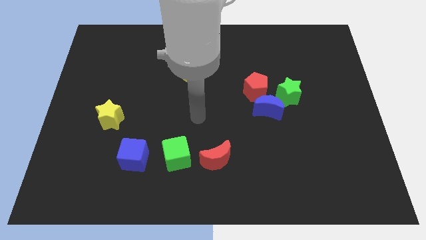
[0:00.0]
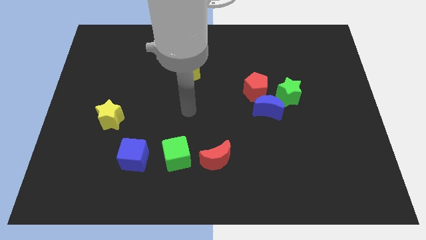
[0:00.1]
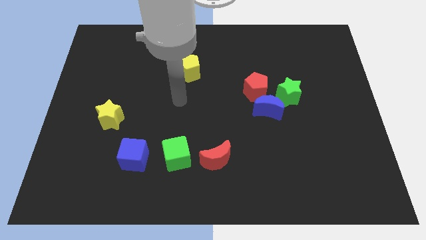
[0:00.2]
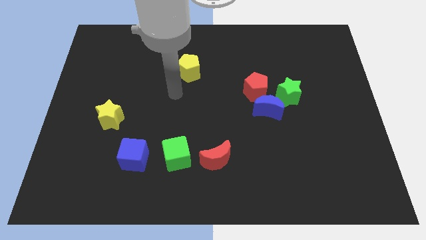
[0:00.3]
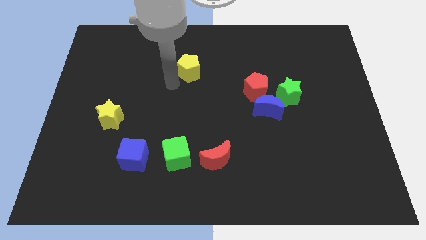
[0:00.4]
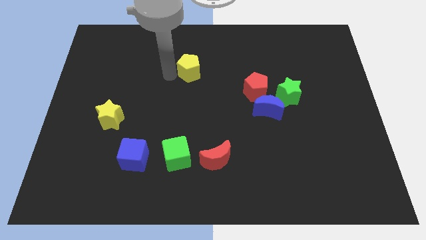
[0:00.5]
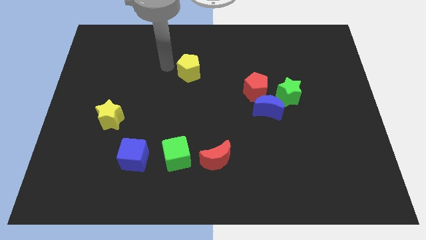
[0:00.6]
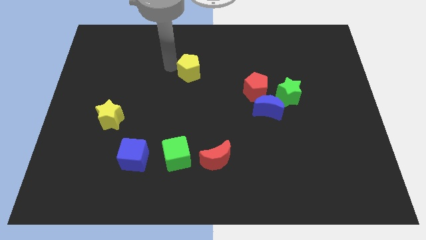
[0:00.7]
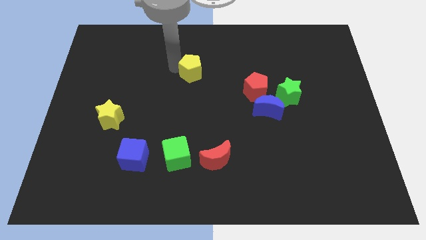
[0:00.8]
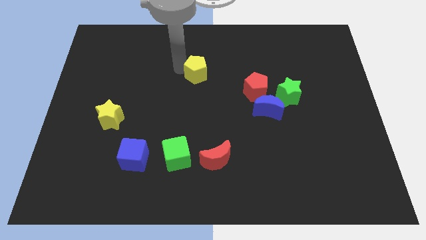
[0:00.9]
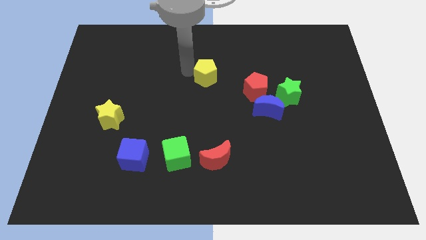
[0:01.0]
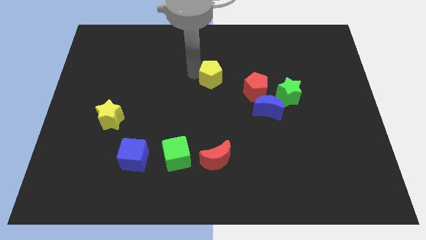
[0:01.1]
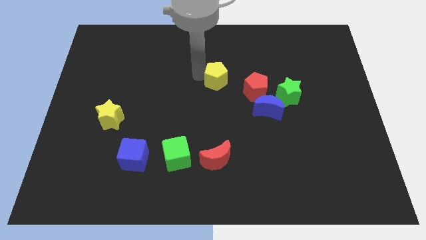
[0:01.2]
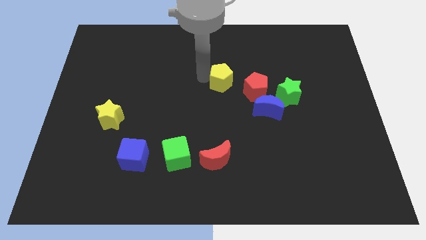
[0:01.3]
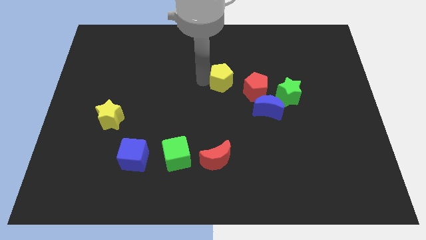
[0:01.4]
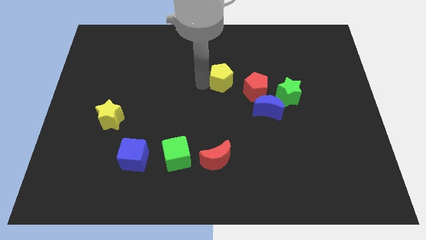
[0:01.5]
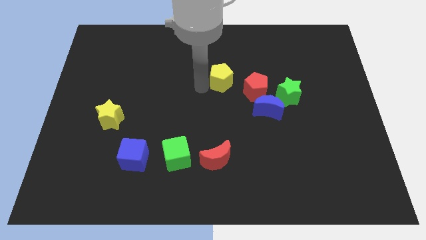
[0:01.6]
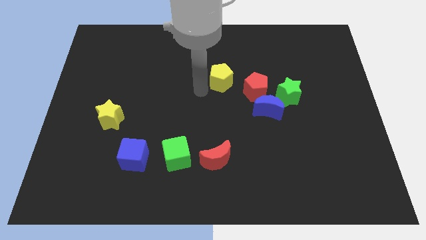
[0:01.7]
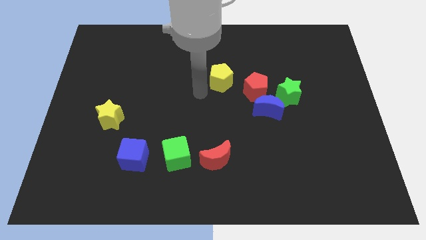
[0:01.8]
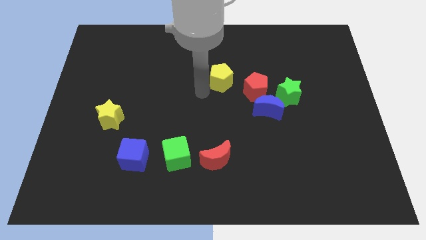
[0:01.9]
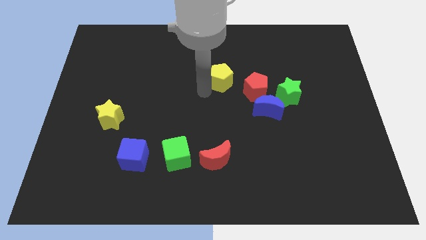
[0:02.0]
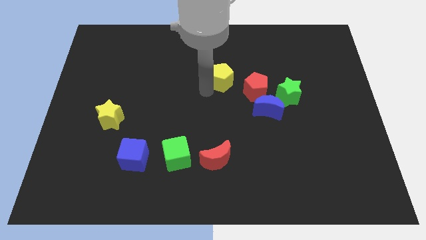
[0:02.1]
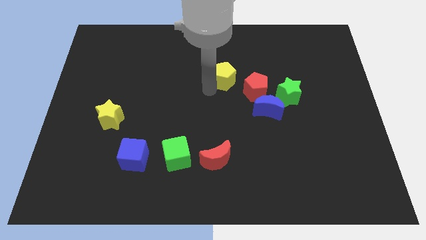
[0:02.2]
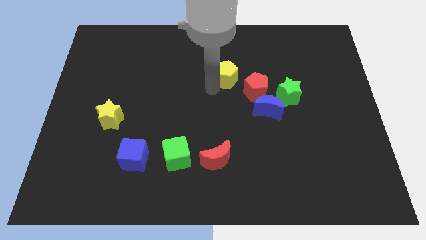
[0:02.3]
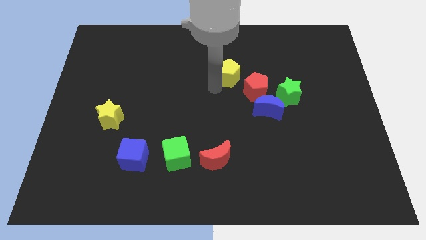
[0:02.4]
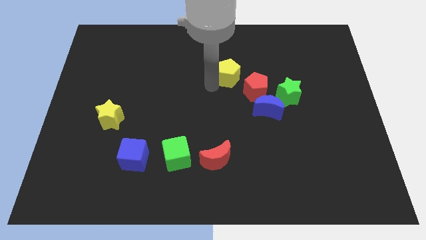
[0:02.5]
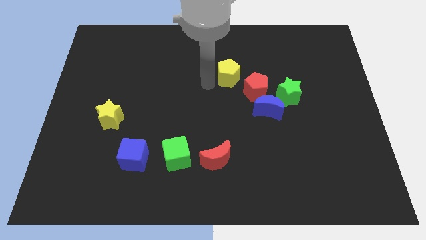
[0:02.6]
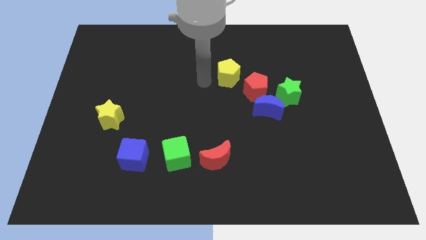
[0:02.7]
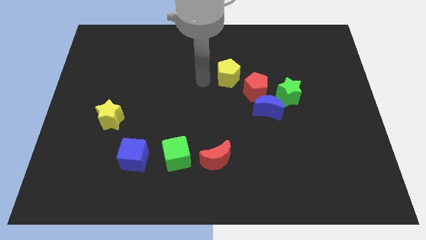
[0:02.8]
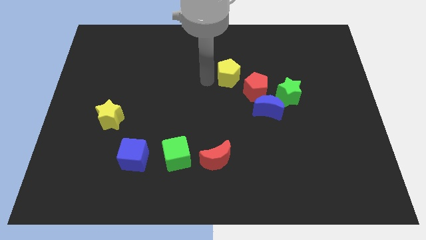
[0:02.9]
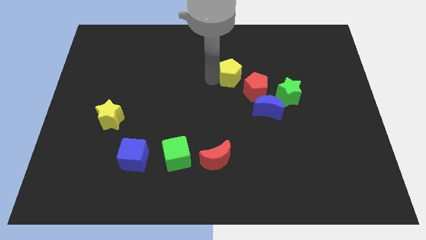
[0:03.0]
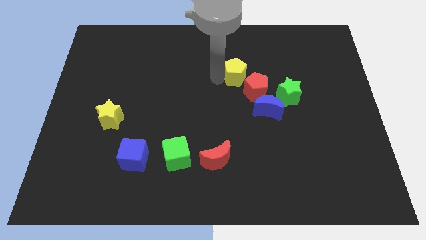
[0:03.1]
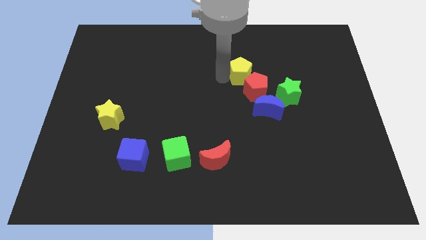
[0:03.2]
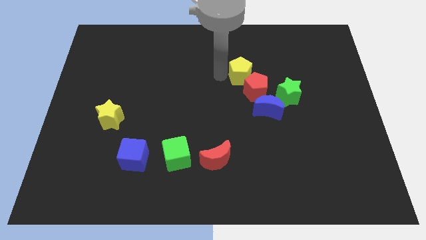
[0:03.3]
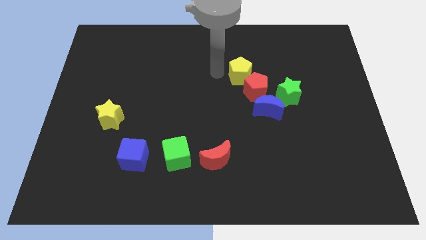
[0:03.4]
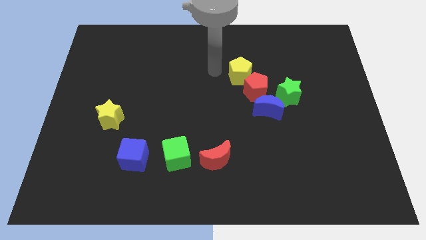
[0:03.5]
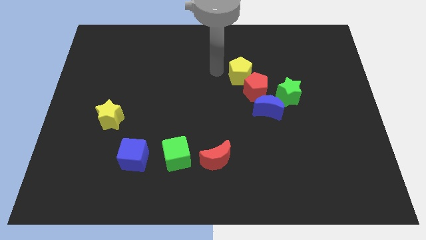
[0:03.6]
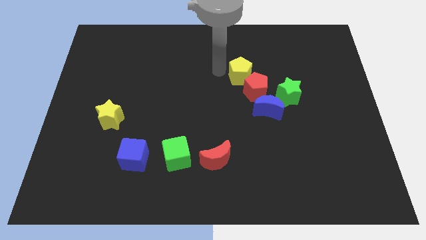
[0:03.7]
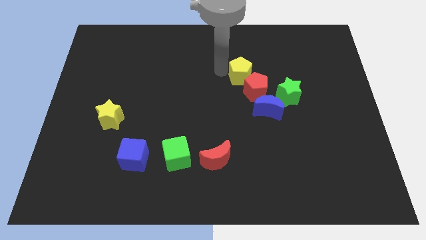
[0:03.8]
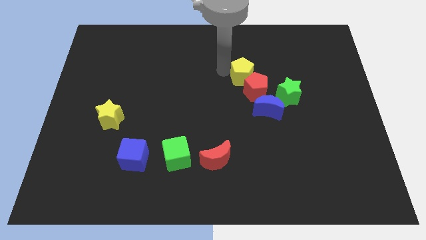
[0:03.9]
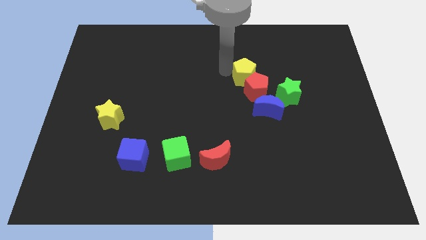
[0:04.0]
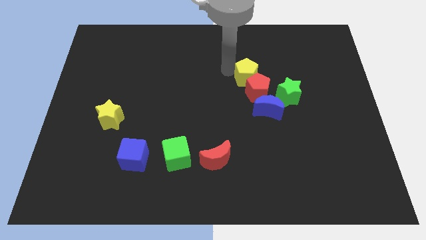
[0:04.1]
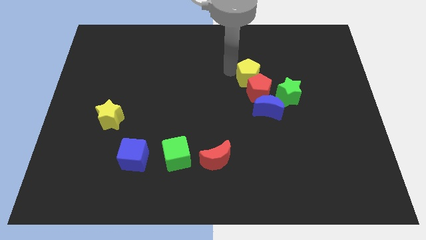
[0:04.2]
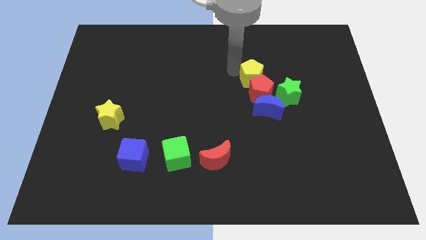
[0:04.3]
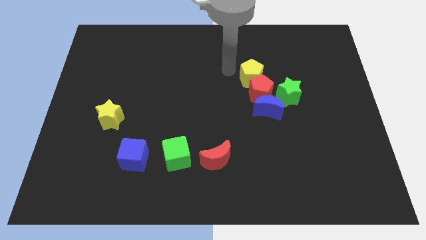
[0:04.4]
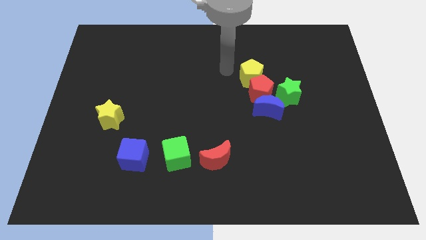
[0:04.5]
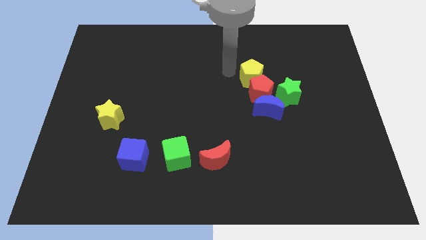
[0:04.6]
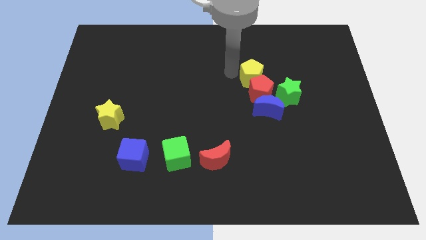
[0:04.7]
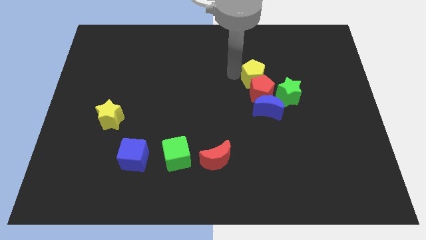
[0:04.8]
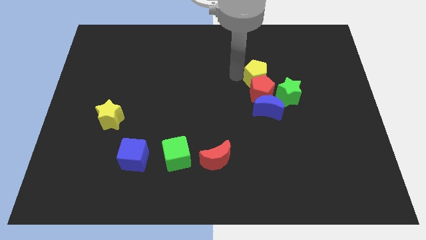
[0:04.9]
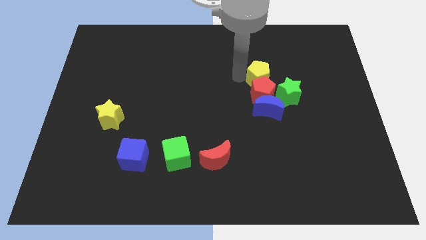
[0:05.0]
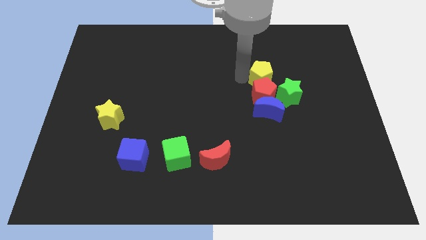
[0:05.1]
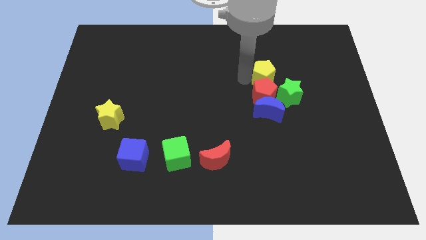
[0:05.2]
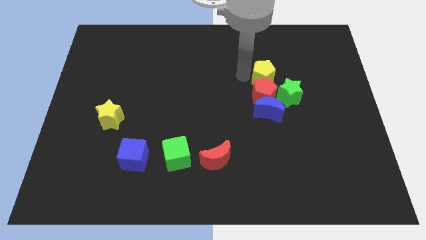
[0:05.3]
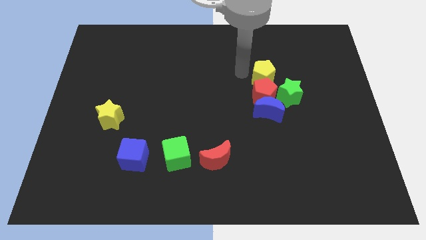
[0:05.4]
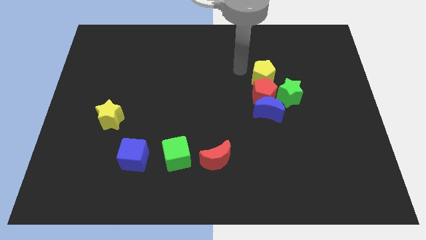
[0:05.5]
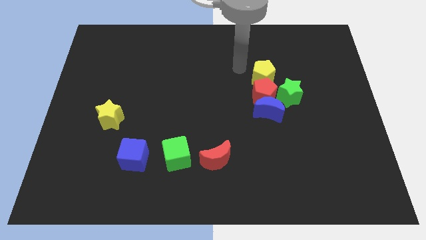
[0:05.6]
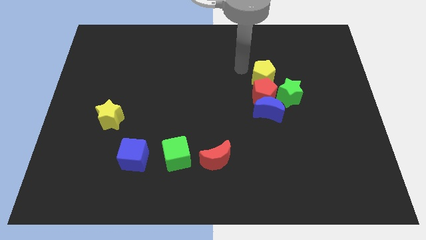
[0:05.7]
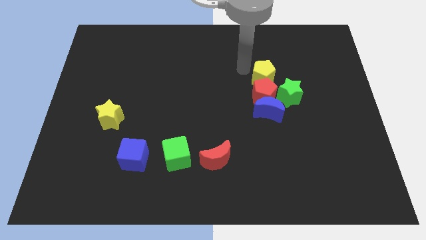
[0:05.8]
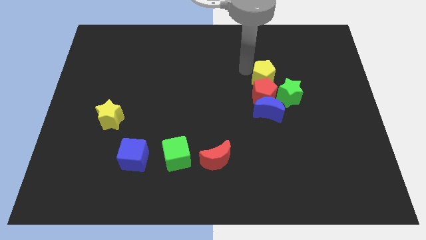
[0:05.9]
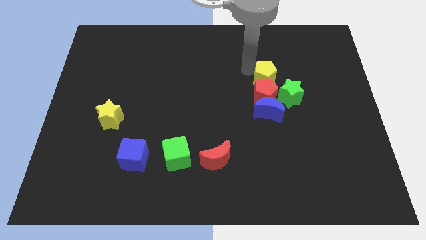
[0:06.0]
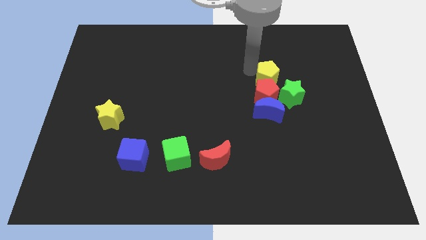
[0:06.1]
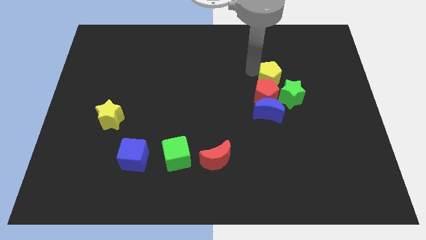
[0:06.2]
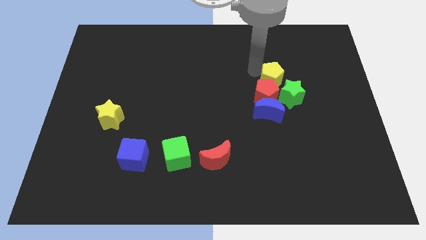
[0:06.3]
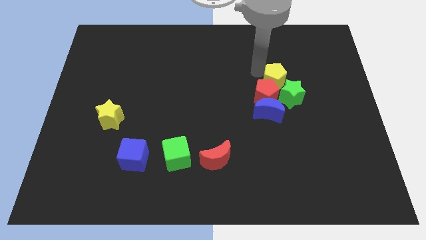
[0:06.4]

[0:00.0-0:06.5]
slide the yellow pentagon next to the green star

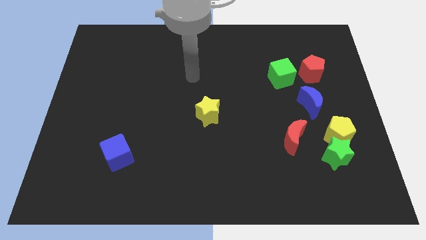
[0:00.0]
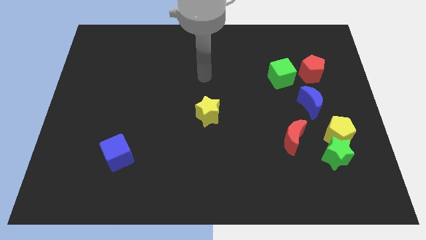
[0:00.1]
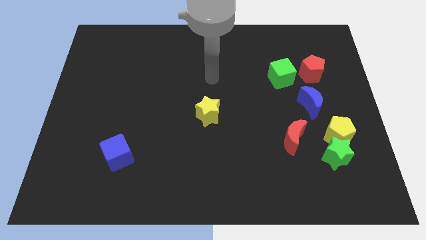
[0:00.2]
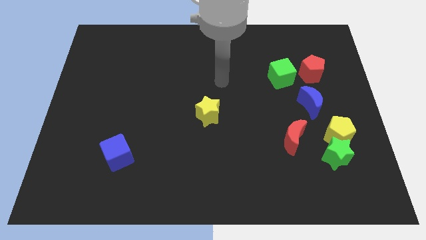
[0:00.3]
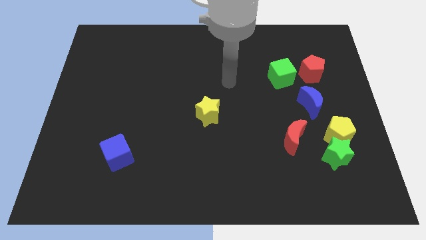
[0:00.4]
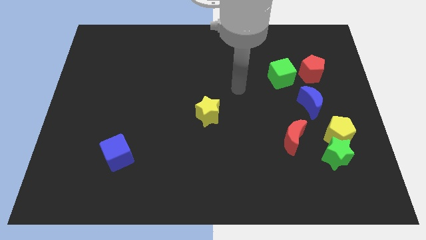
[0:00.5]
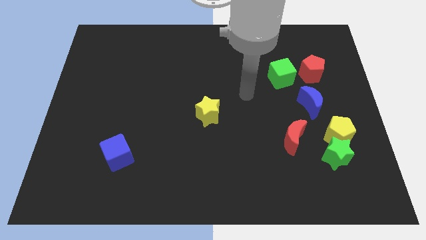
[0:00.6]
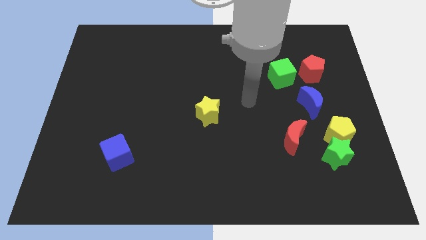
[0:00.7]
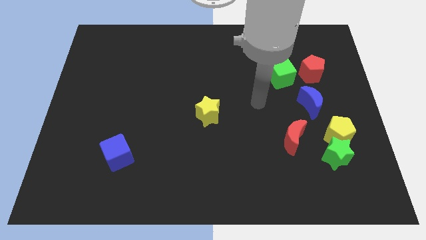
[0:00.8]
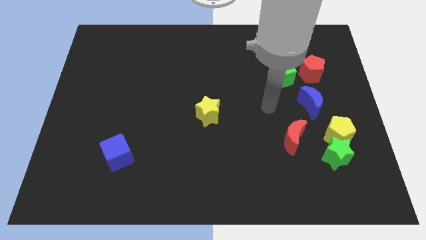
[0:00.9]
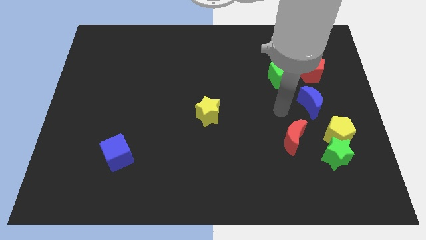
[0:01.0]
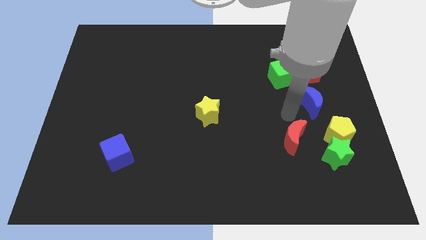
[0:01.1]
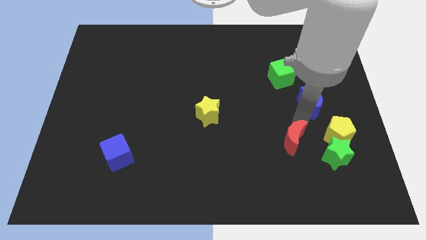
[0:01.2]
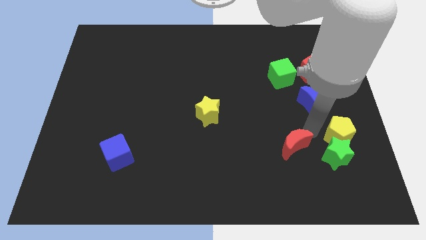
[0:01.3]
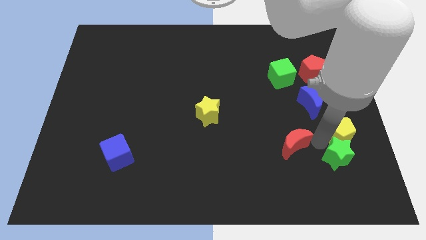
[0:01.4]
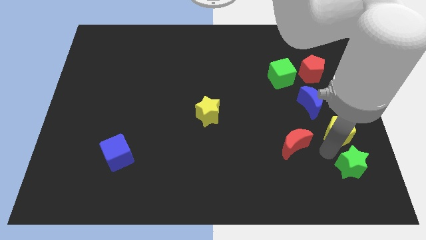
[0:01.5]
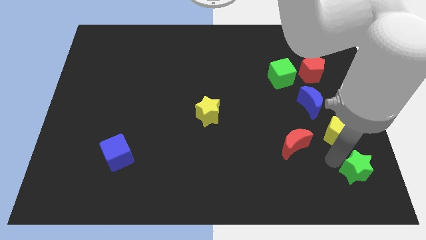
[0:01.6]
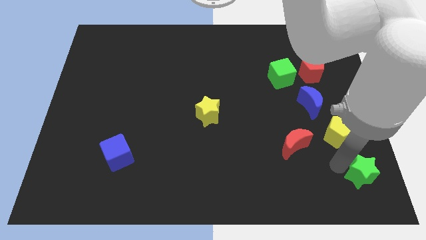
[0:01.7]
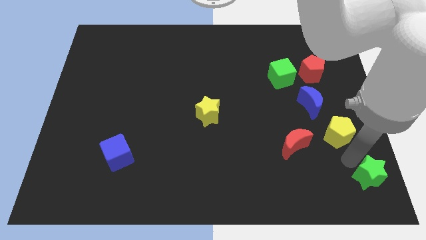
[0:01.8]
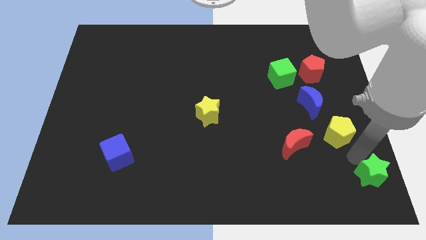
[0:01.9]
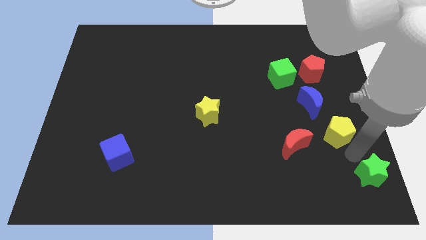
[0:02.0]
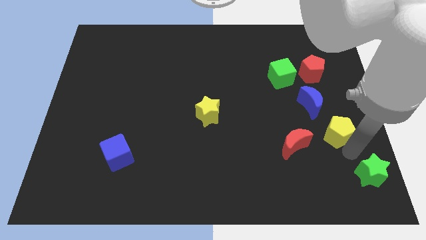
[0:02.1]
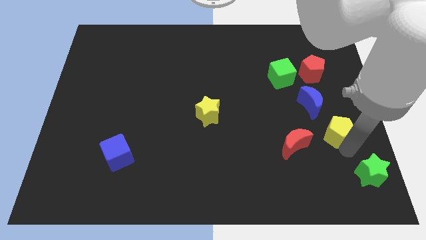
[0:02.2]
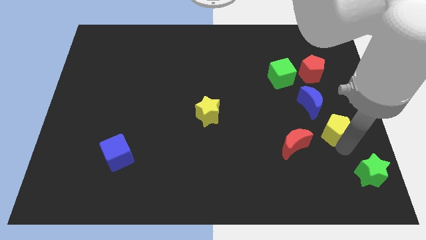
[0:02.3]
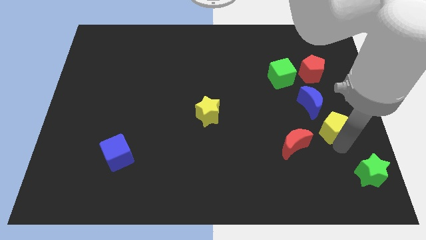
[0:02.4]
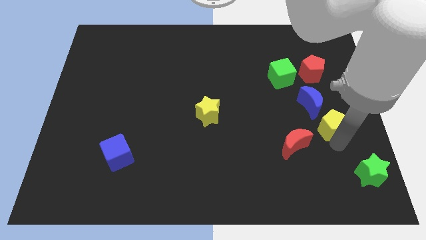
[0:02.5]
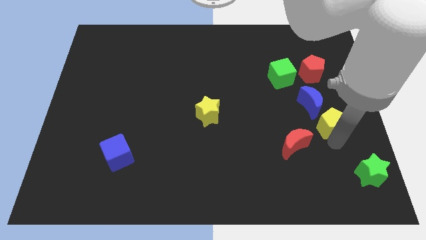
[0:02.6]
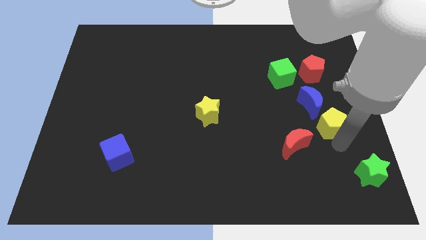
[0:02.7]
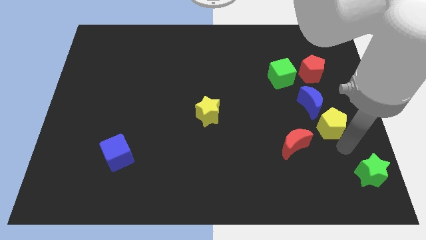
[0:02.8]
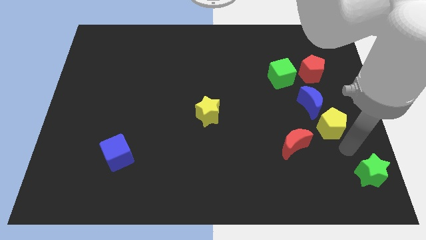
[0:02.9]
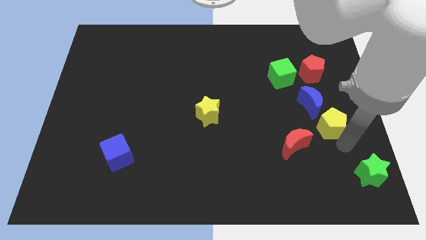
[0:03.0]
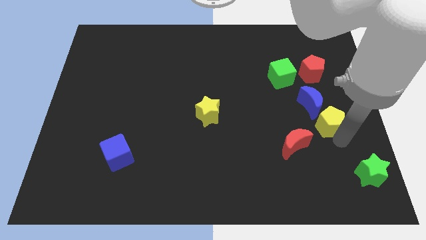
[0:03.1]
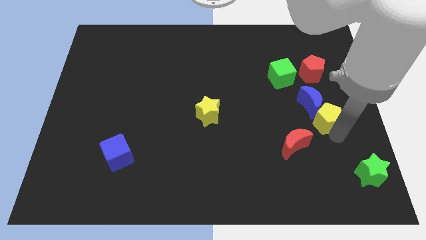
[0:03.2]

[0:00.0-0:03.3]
slide the yellow pentagon close to the blue moon
